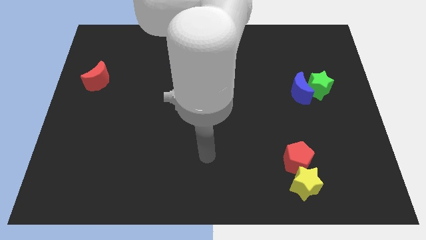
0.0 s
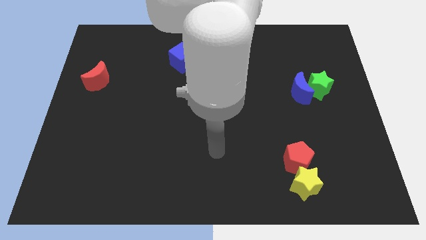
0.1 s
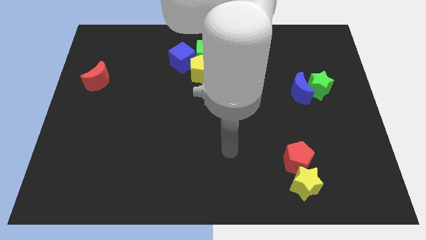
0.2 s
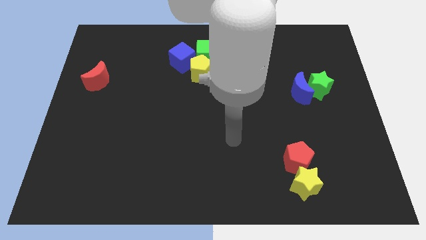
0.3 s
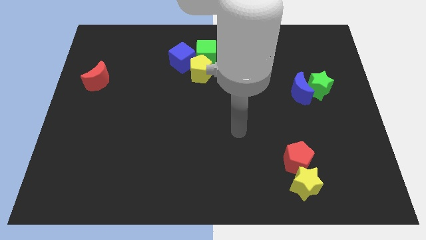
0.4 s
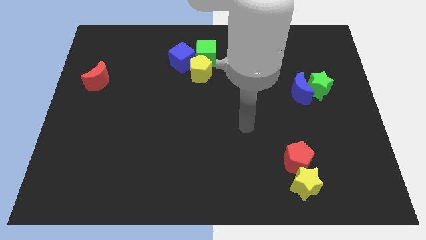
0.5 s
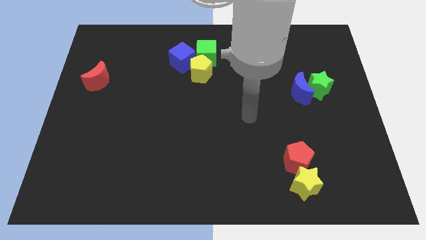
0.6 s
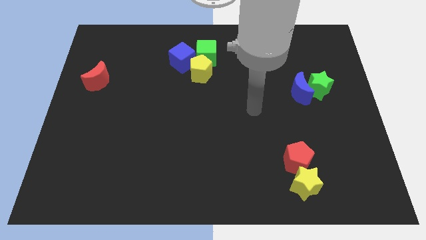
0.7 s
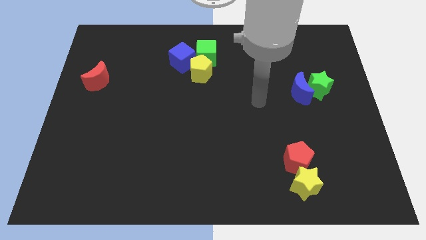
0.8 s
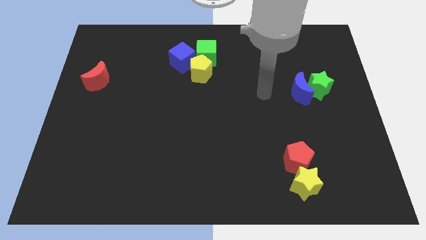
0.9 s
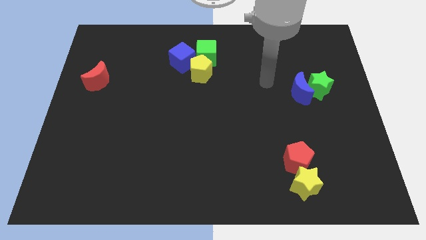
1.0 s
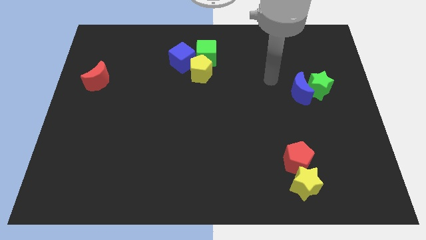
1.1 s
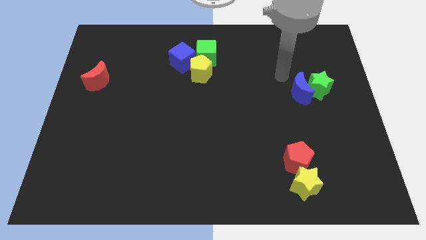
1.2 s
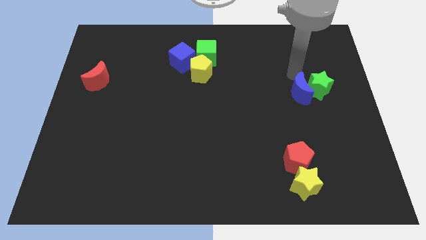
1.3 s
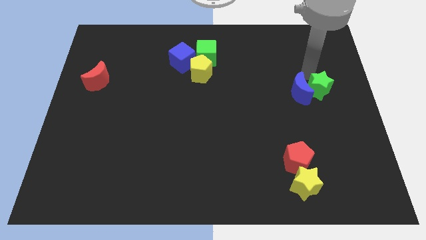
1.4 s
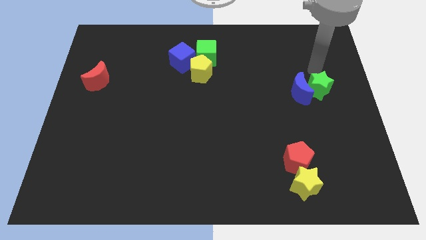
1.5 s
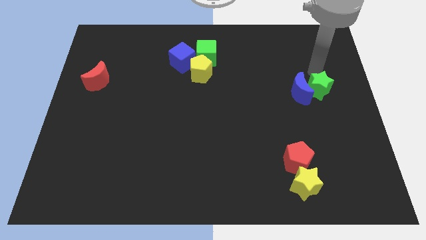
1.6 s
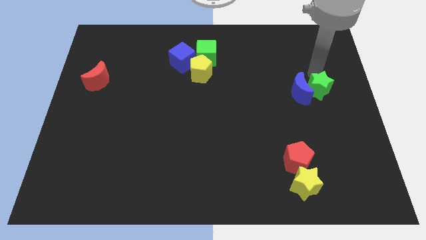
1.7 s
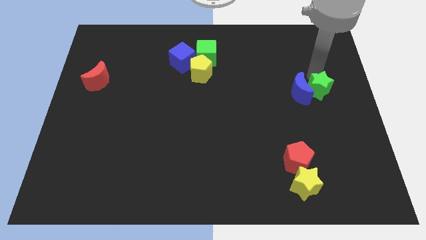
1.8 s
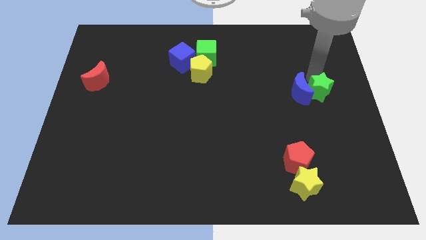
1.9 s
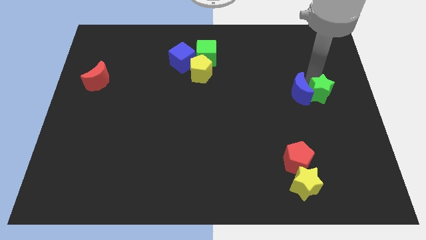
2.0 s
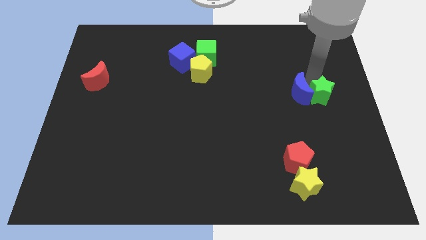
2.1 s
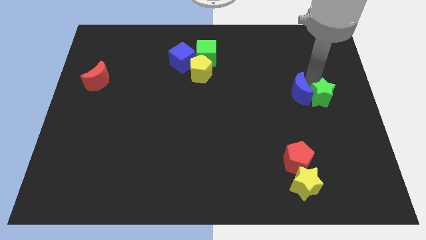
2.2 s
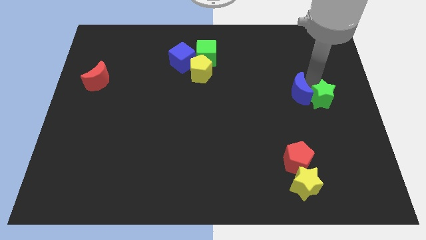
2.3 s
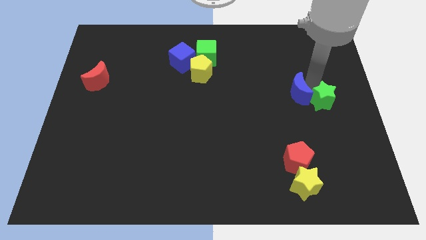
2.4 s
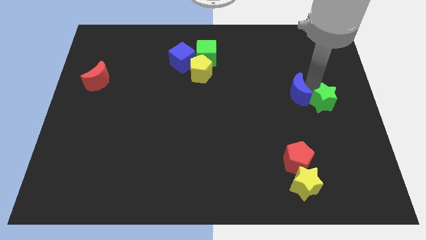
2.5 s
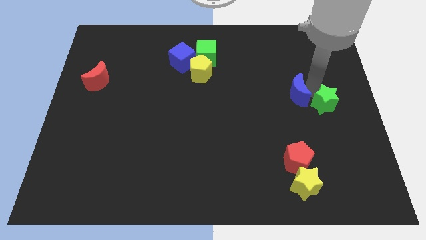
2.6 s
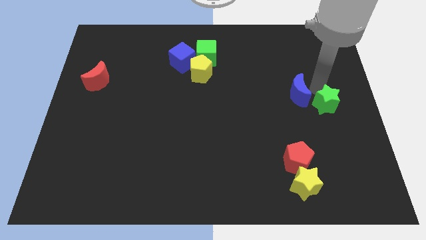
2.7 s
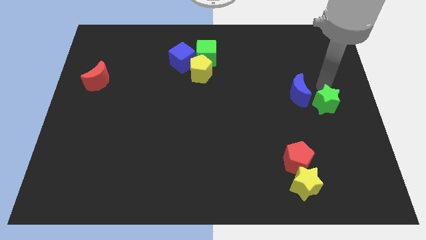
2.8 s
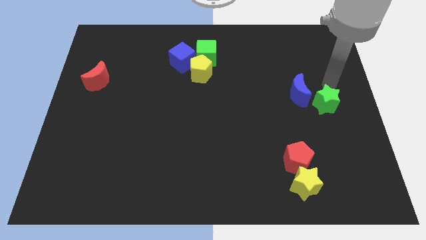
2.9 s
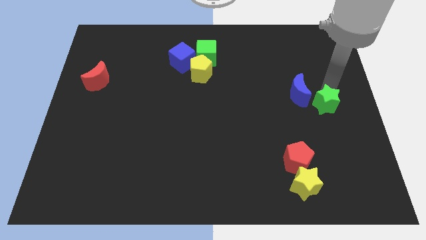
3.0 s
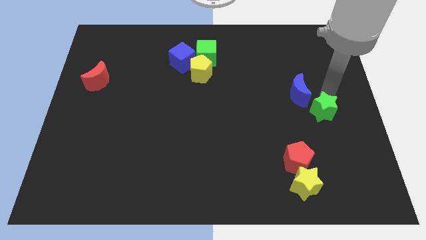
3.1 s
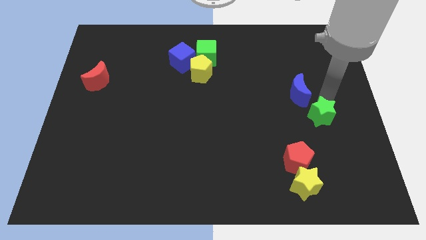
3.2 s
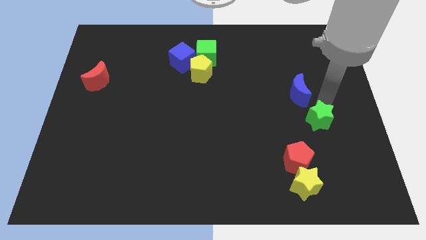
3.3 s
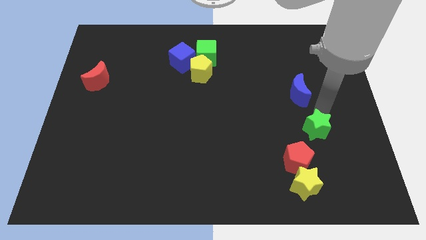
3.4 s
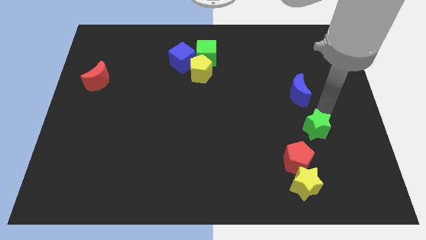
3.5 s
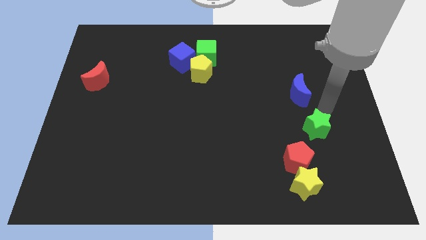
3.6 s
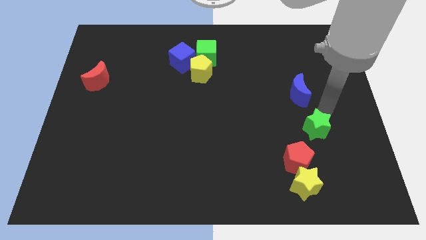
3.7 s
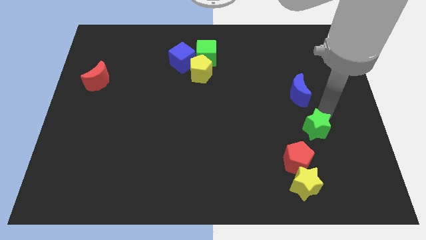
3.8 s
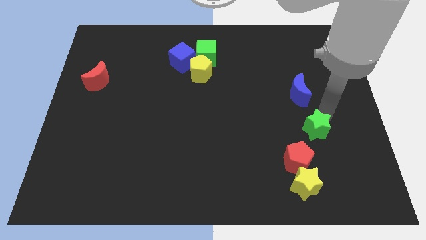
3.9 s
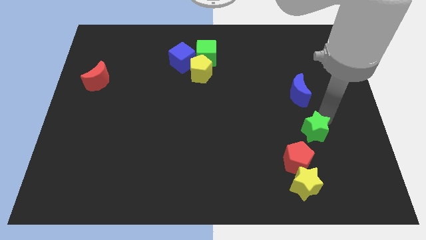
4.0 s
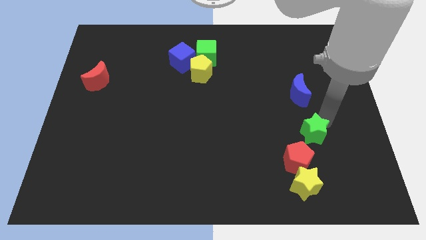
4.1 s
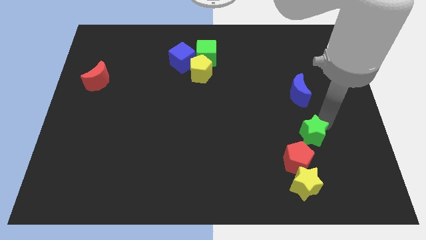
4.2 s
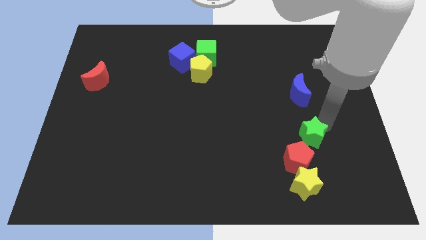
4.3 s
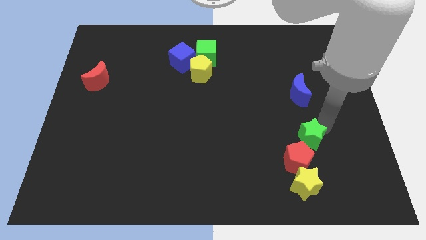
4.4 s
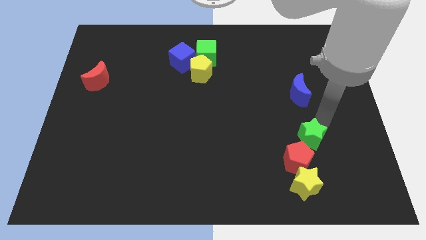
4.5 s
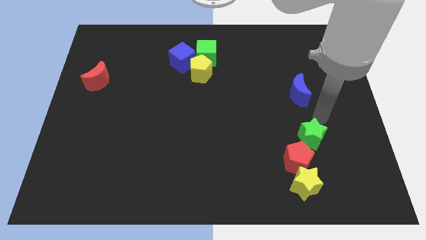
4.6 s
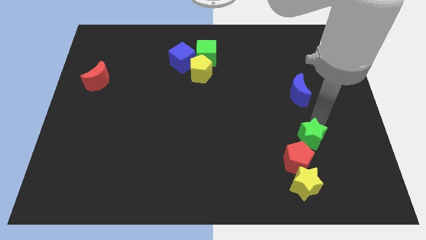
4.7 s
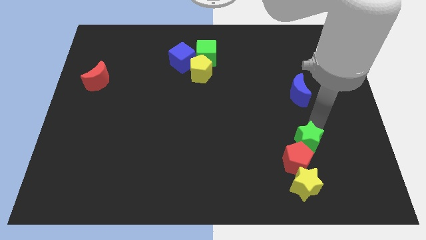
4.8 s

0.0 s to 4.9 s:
push the green star to the red pentagon

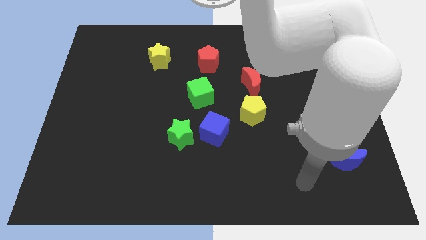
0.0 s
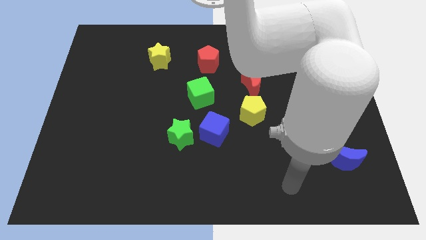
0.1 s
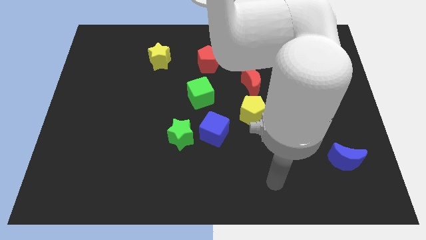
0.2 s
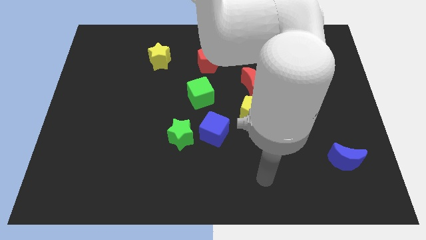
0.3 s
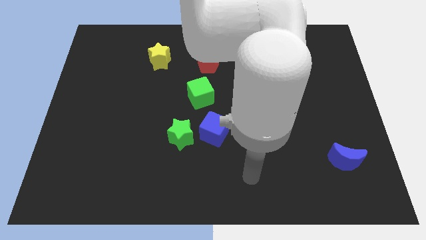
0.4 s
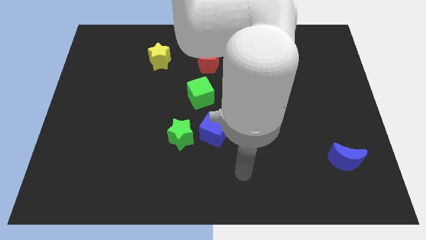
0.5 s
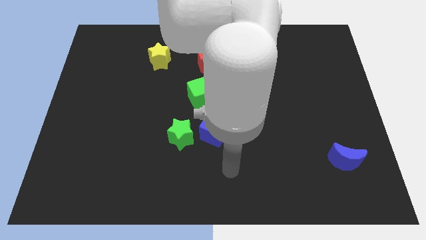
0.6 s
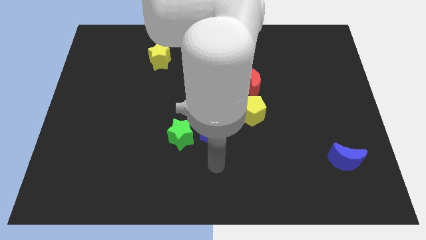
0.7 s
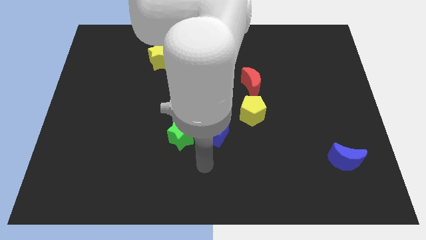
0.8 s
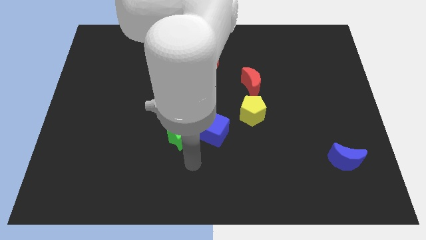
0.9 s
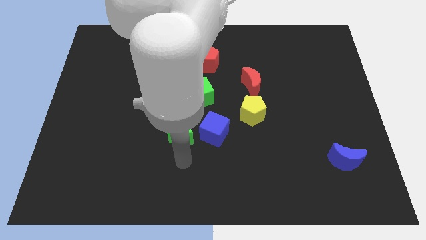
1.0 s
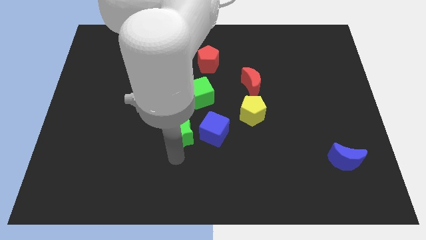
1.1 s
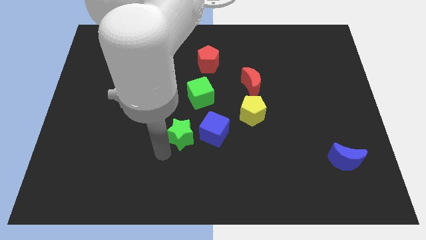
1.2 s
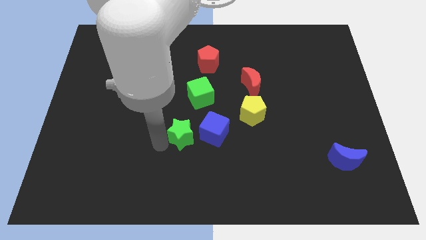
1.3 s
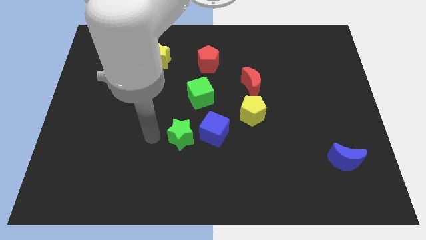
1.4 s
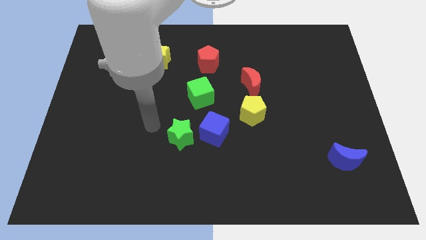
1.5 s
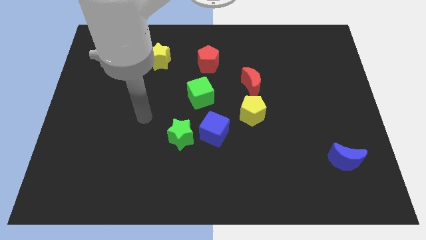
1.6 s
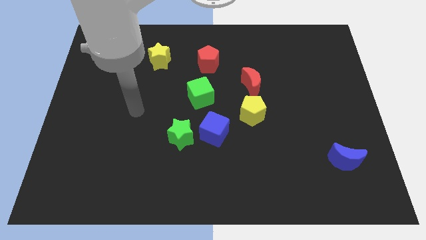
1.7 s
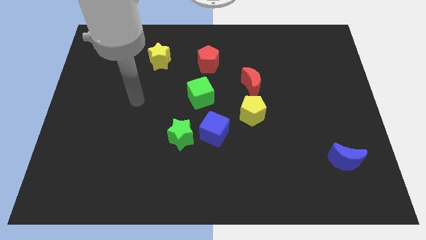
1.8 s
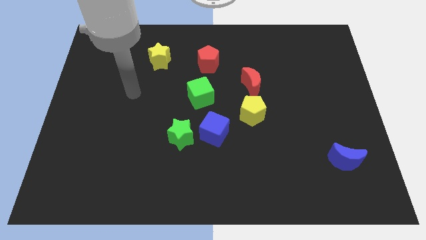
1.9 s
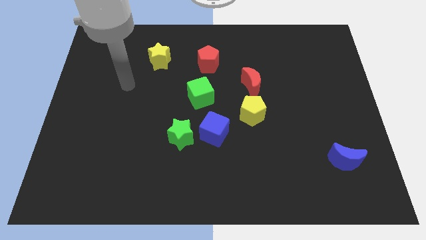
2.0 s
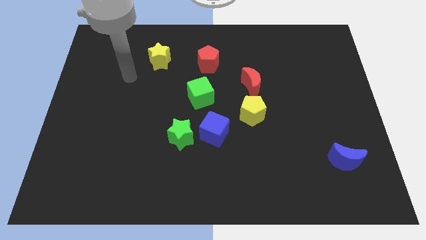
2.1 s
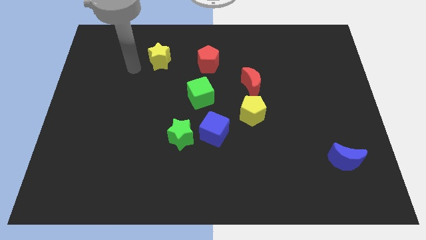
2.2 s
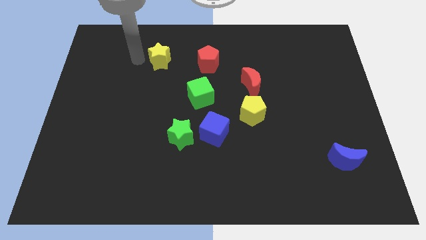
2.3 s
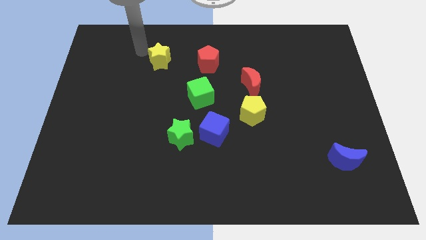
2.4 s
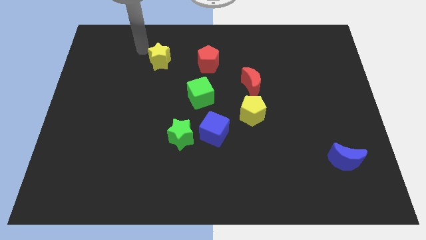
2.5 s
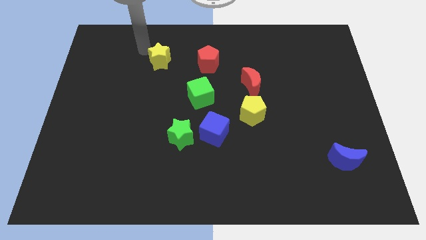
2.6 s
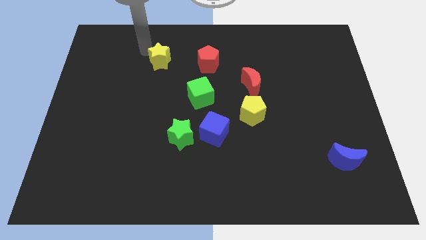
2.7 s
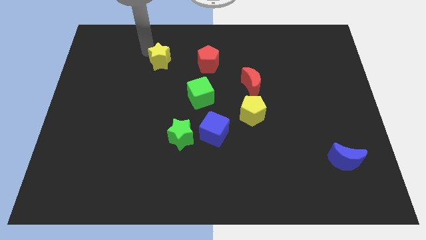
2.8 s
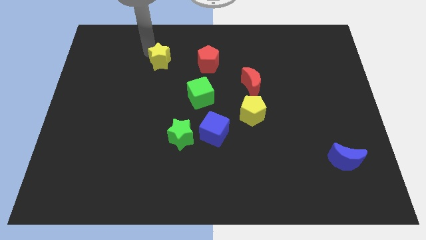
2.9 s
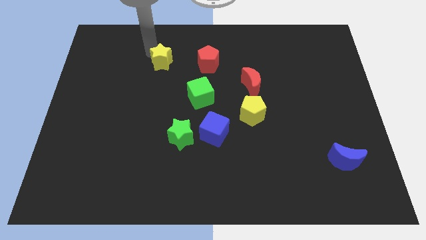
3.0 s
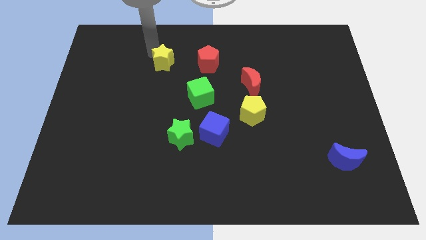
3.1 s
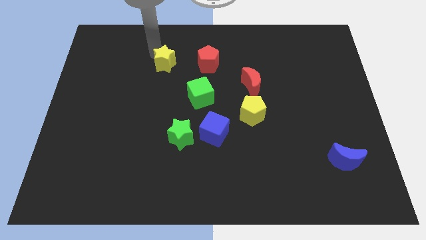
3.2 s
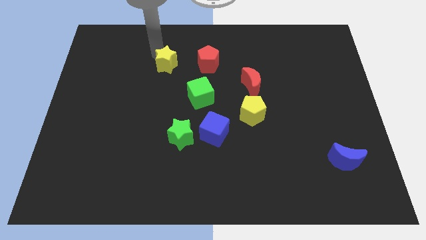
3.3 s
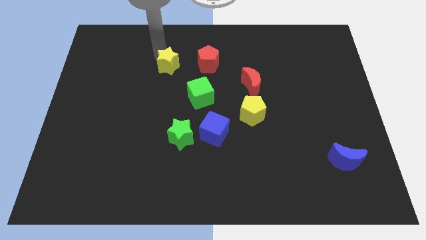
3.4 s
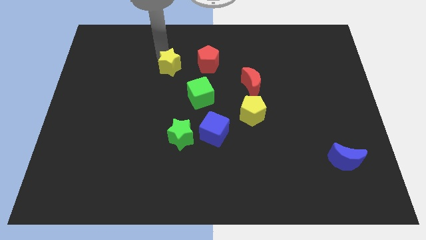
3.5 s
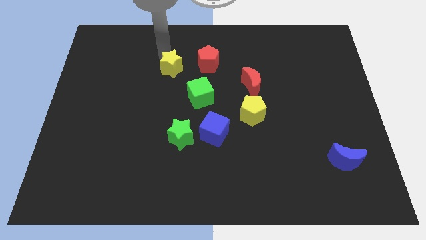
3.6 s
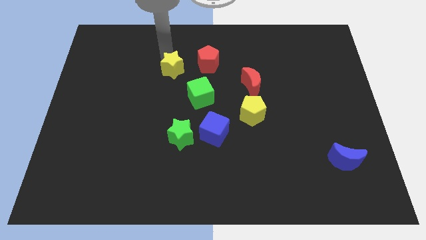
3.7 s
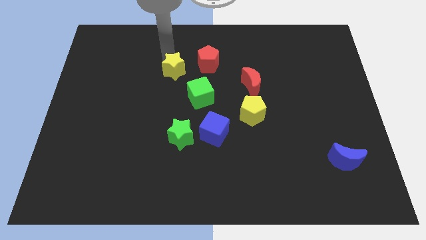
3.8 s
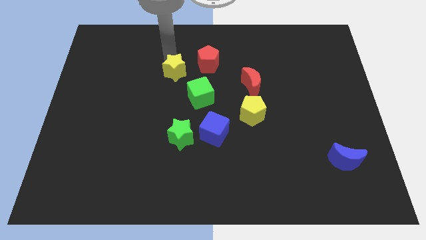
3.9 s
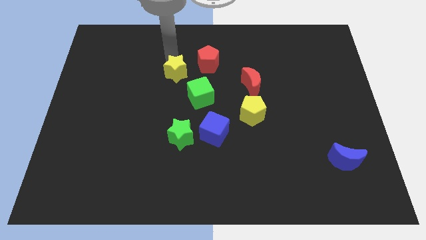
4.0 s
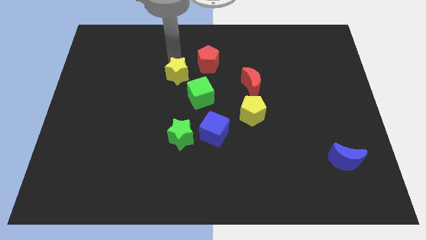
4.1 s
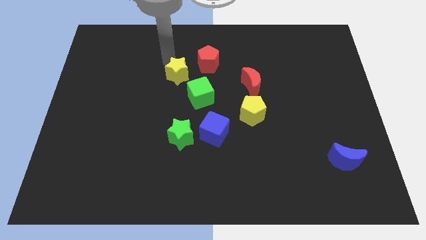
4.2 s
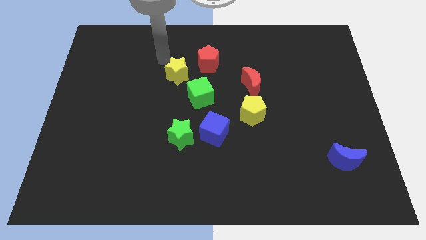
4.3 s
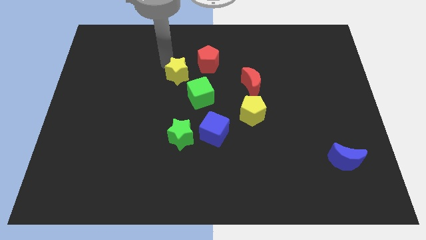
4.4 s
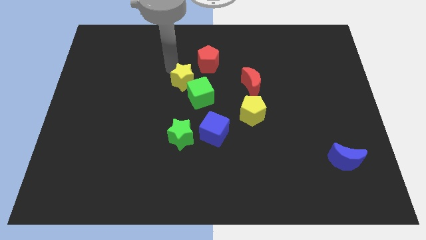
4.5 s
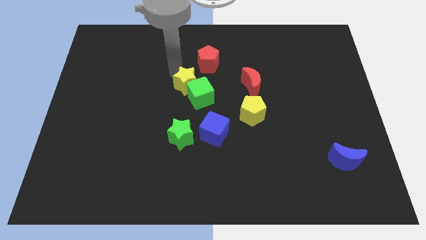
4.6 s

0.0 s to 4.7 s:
put the yellow star towards the green cube
